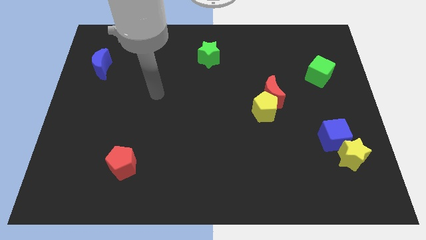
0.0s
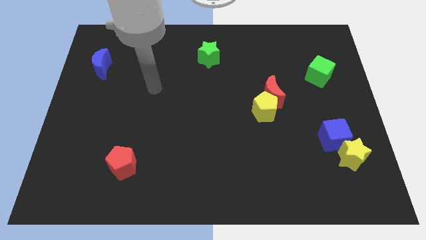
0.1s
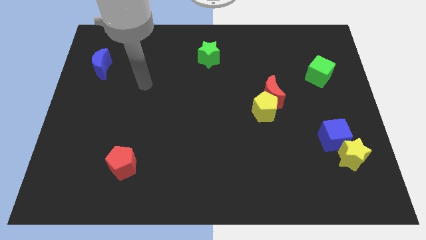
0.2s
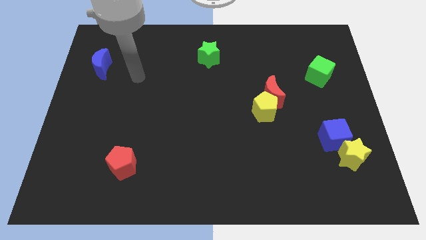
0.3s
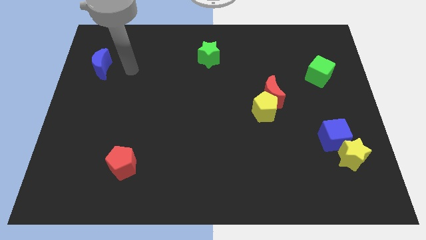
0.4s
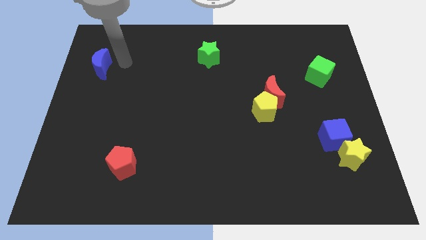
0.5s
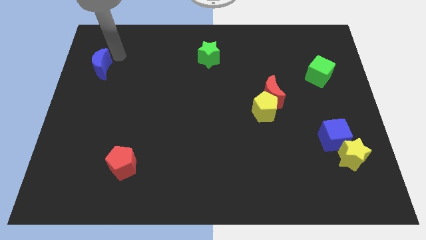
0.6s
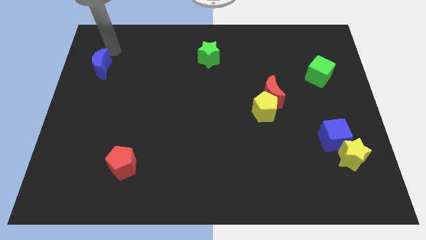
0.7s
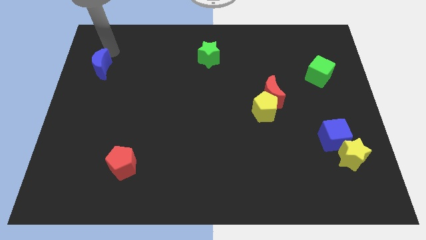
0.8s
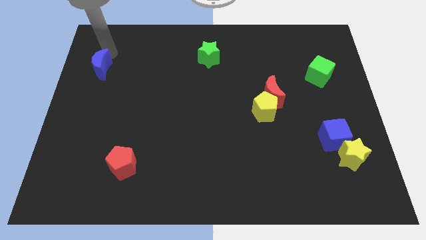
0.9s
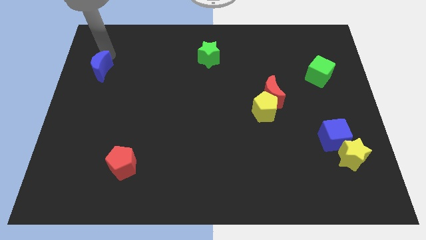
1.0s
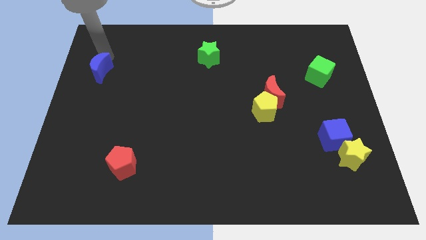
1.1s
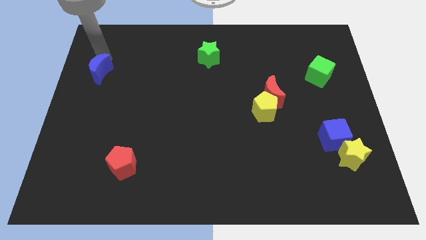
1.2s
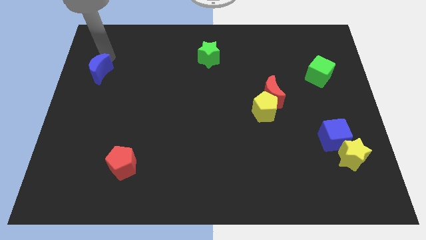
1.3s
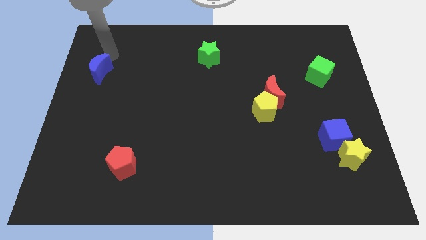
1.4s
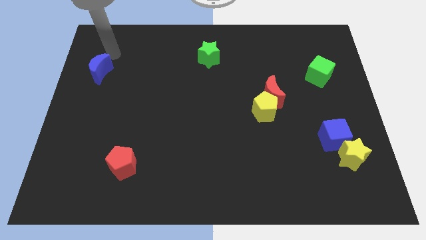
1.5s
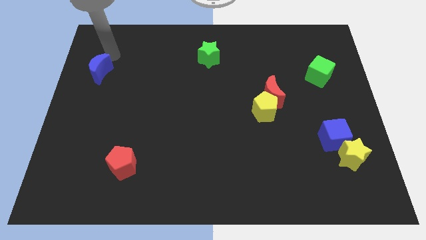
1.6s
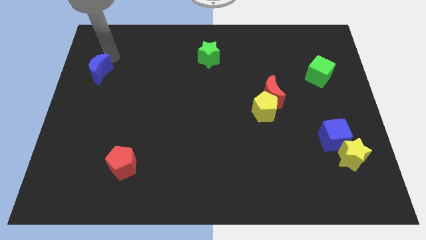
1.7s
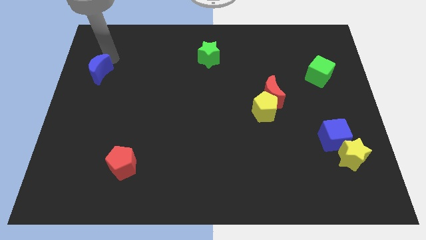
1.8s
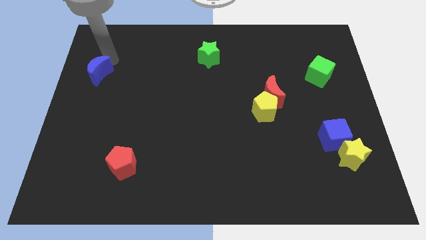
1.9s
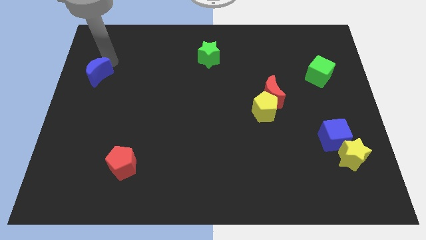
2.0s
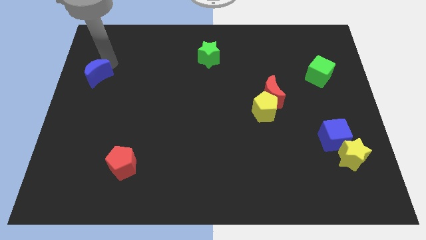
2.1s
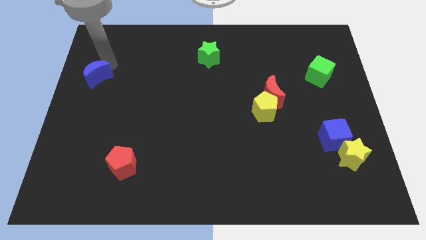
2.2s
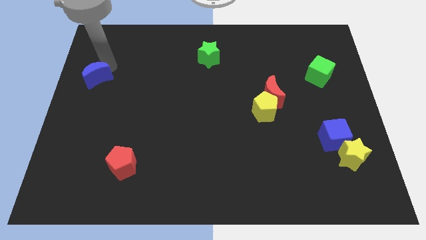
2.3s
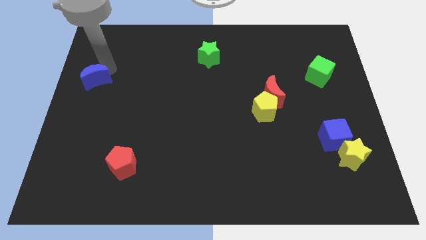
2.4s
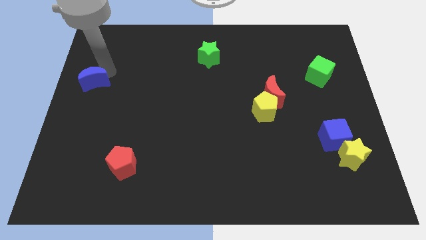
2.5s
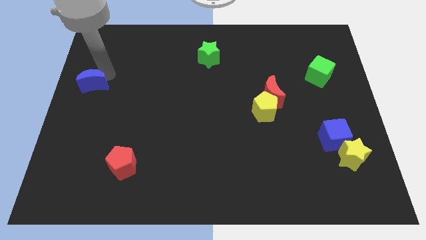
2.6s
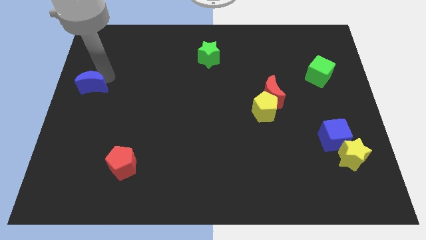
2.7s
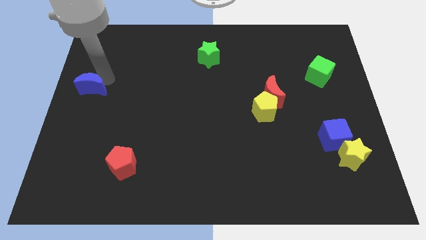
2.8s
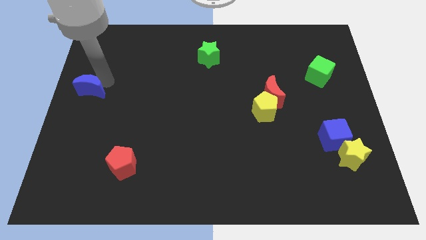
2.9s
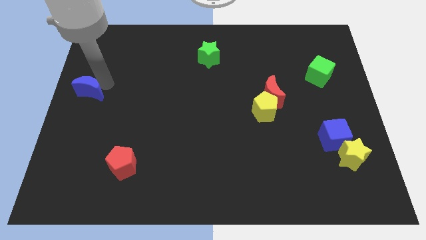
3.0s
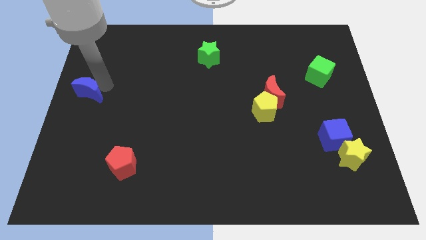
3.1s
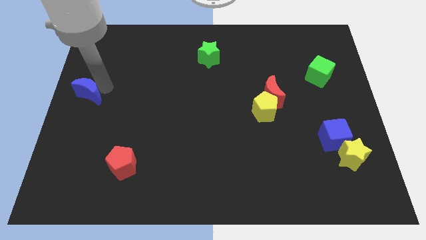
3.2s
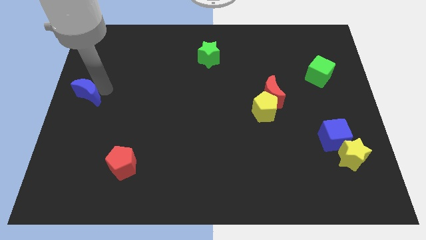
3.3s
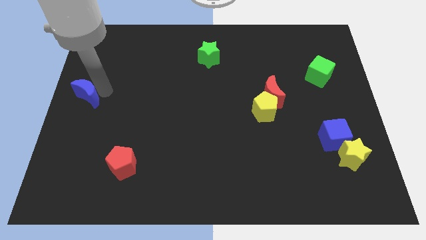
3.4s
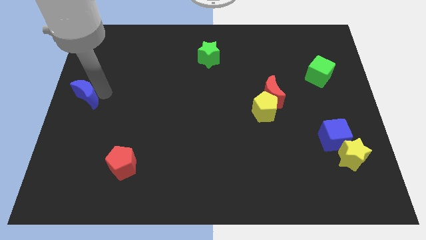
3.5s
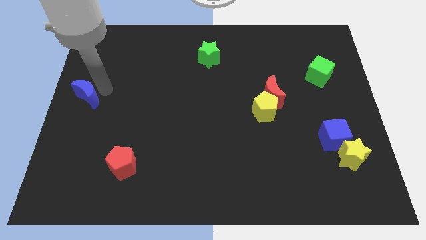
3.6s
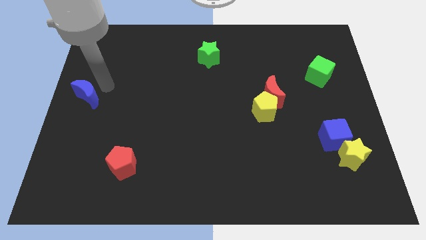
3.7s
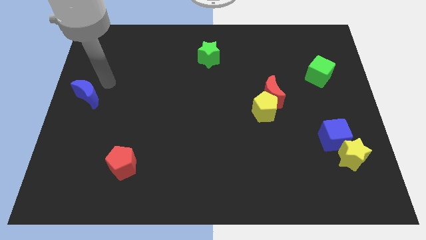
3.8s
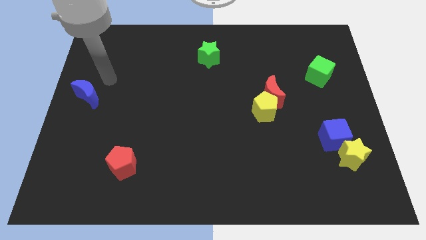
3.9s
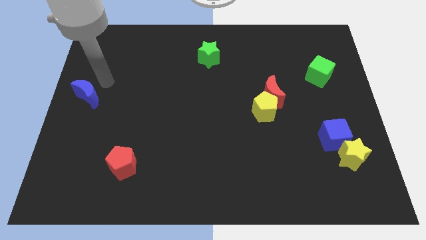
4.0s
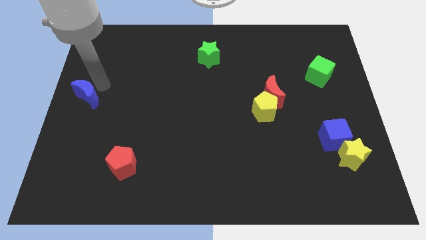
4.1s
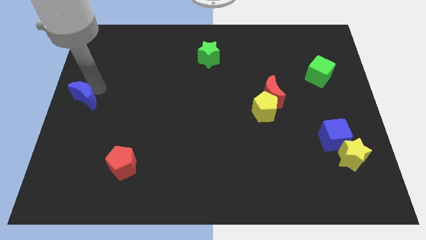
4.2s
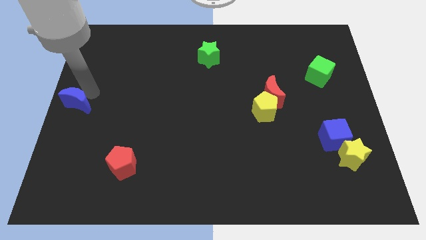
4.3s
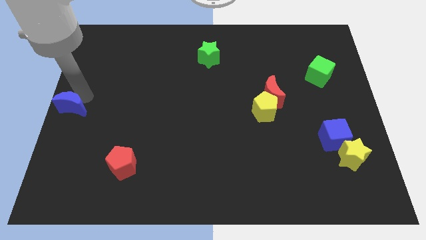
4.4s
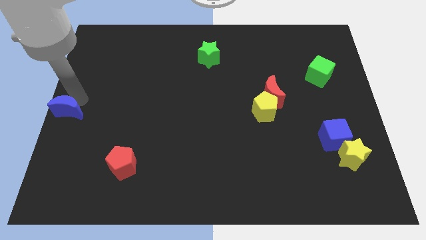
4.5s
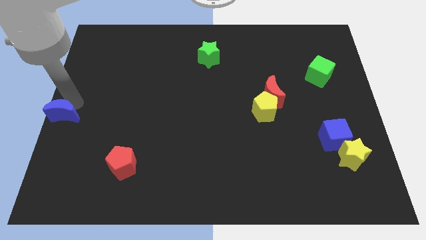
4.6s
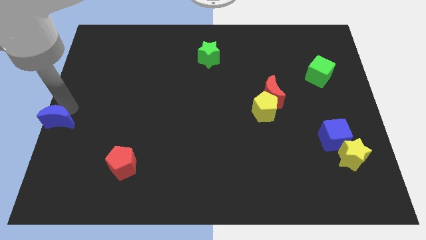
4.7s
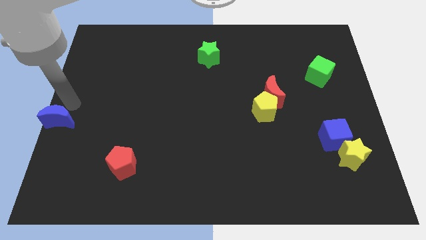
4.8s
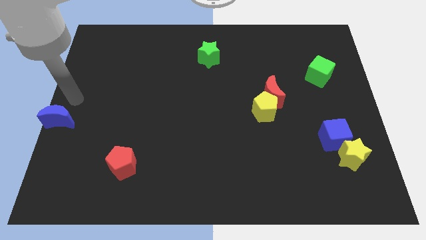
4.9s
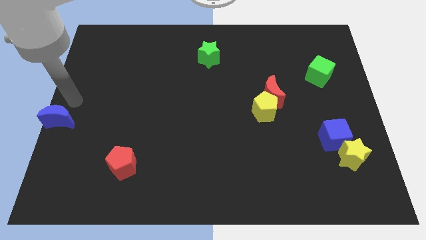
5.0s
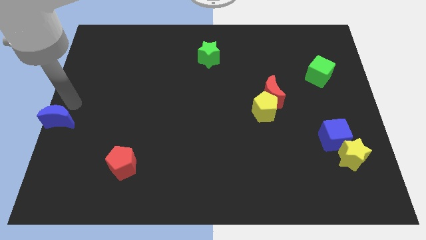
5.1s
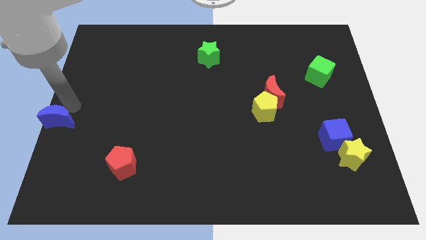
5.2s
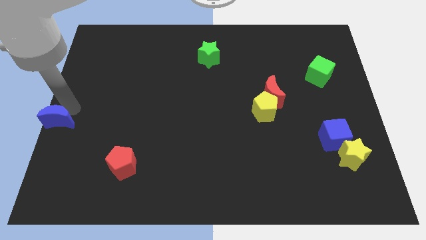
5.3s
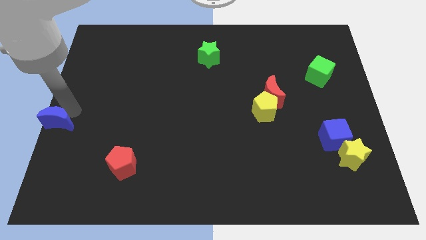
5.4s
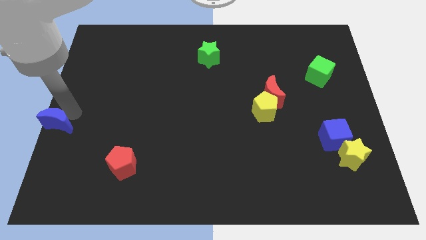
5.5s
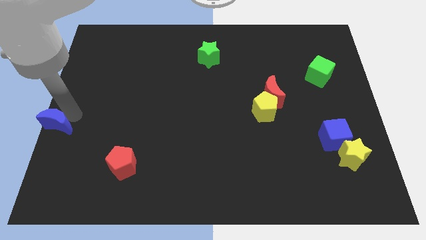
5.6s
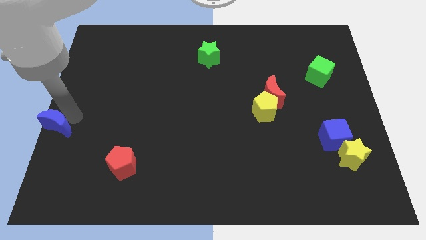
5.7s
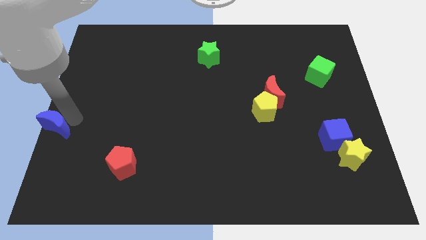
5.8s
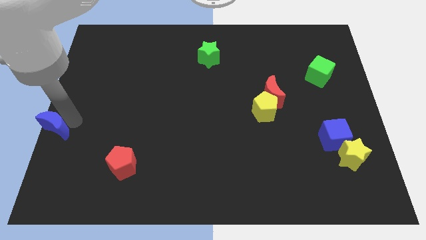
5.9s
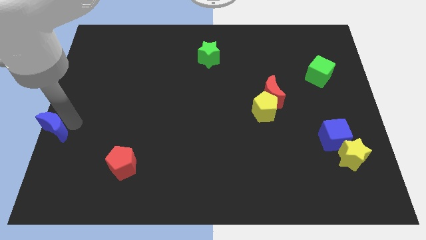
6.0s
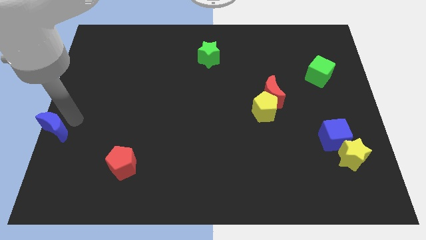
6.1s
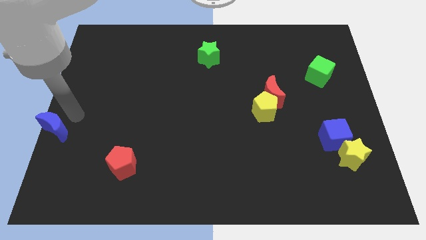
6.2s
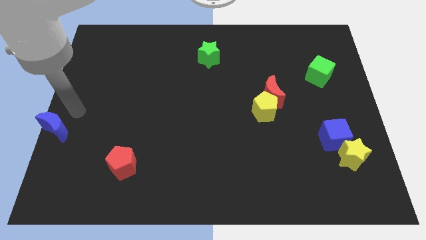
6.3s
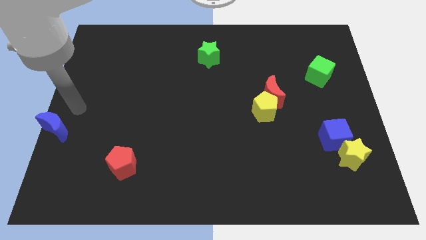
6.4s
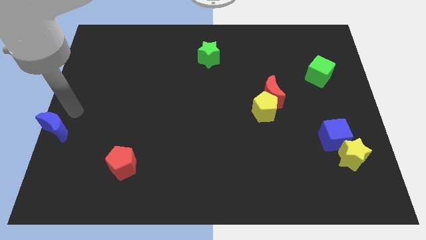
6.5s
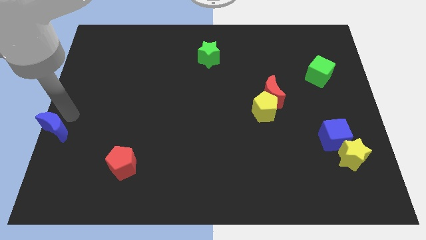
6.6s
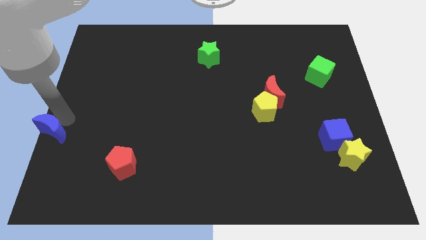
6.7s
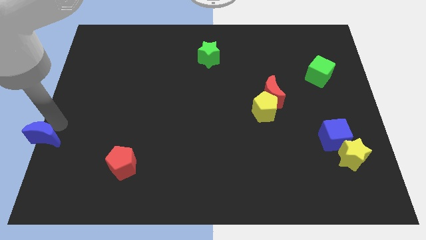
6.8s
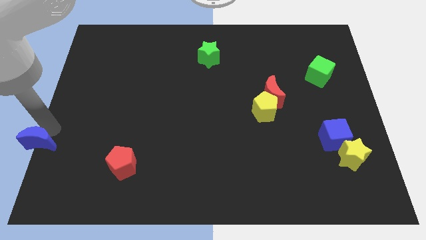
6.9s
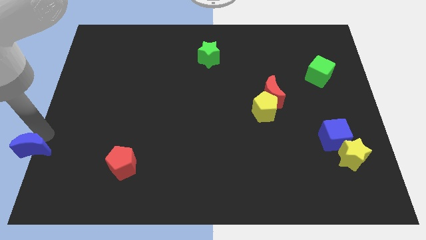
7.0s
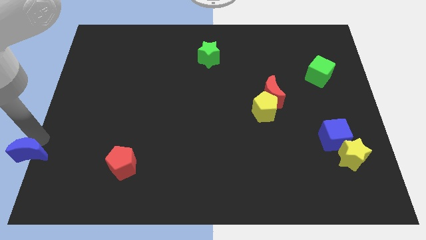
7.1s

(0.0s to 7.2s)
push the blue moon to the lower left corner
